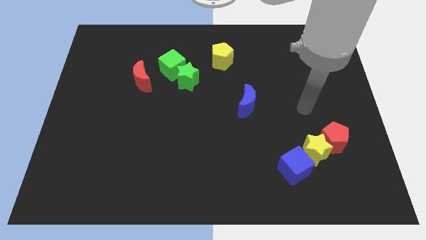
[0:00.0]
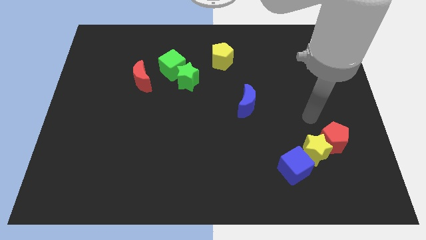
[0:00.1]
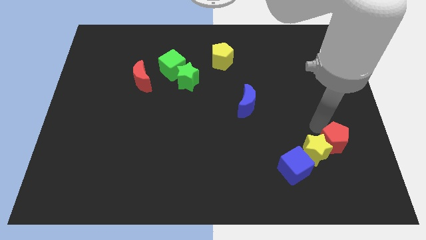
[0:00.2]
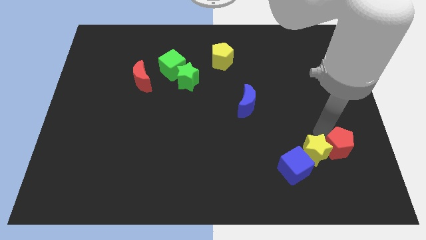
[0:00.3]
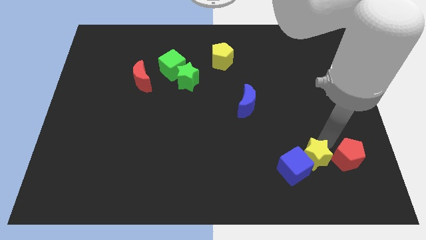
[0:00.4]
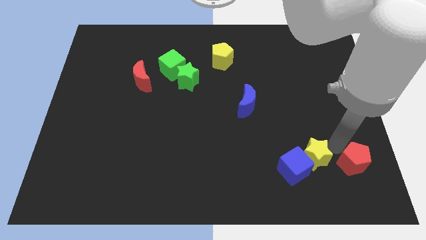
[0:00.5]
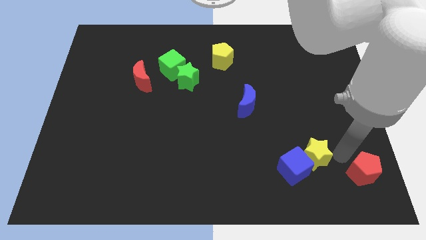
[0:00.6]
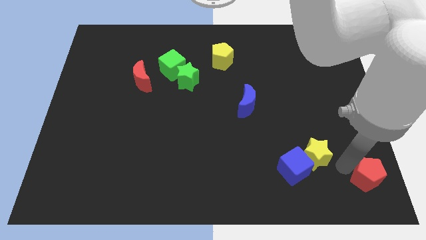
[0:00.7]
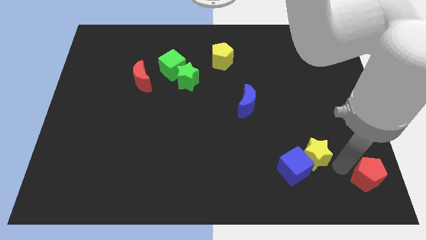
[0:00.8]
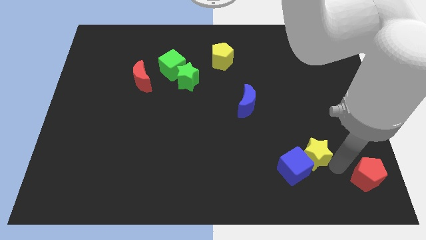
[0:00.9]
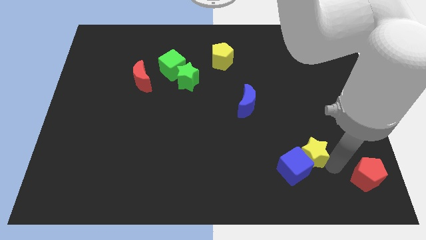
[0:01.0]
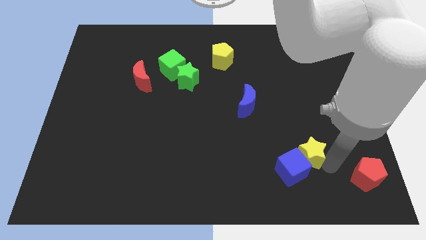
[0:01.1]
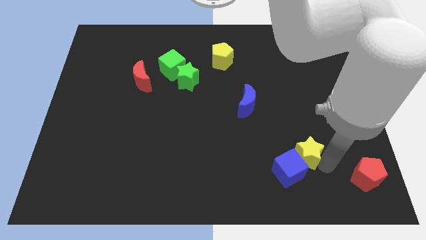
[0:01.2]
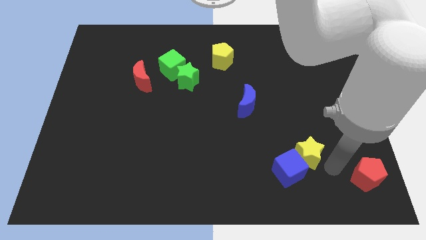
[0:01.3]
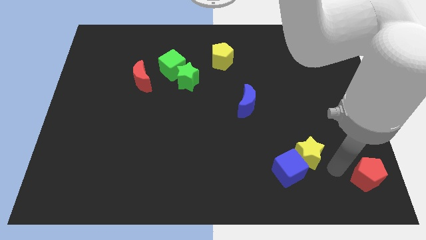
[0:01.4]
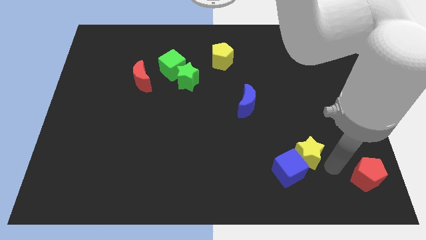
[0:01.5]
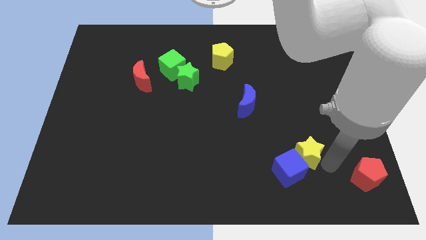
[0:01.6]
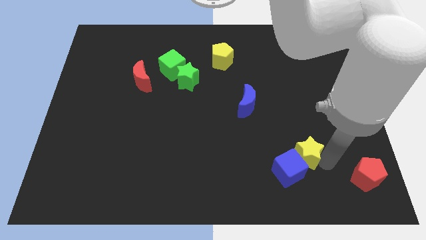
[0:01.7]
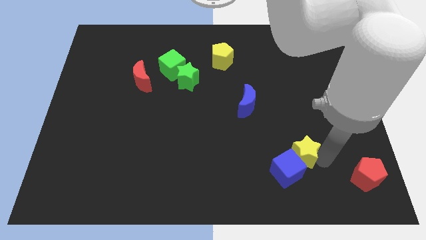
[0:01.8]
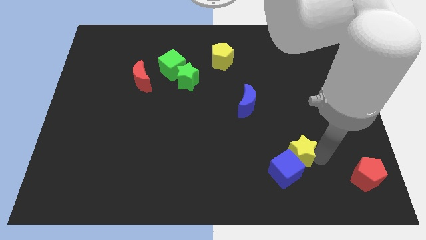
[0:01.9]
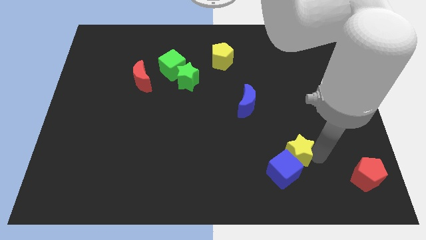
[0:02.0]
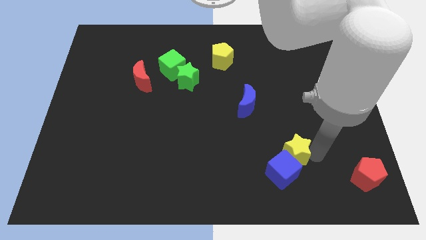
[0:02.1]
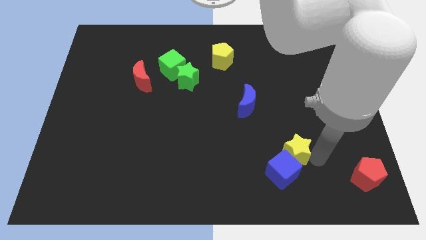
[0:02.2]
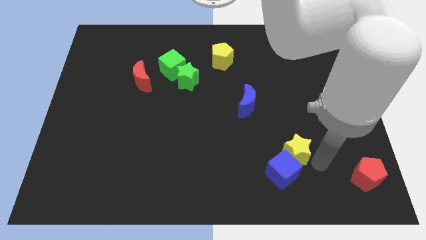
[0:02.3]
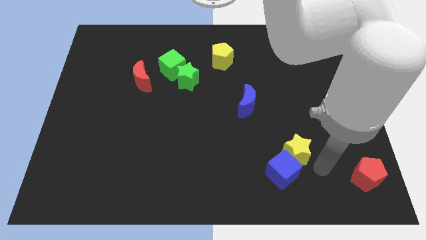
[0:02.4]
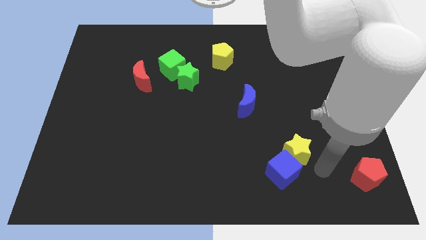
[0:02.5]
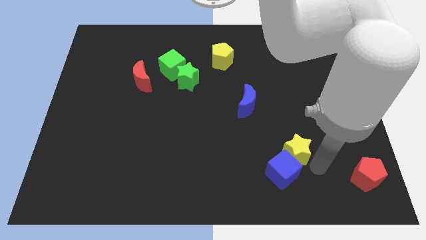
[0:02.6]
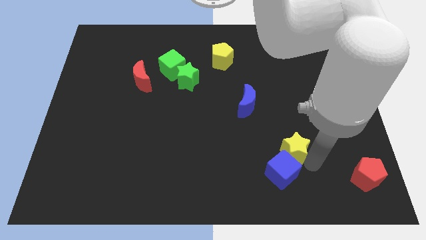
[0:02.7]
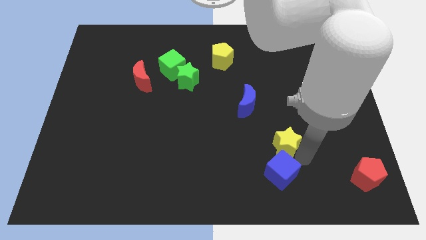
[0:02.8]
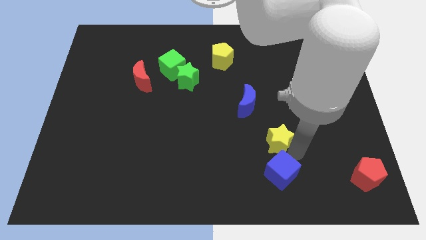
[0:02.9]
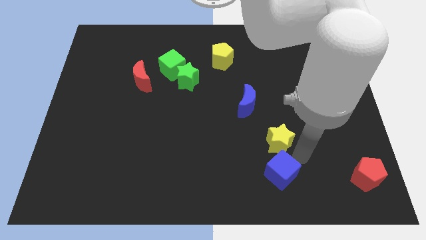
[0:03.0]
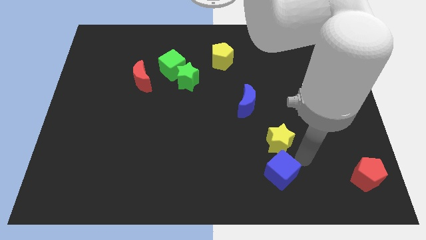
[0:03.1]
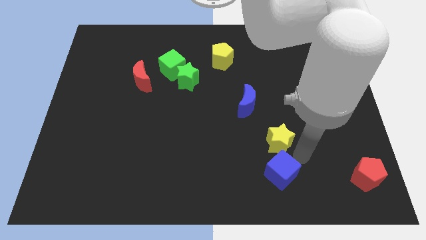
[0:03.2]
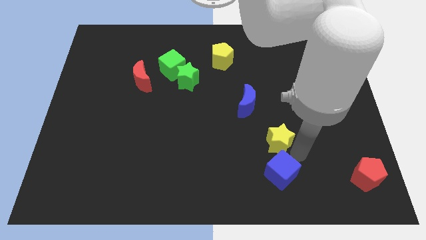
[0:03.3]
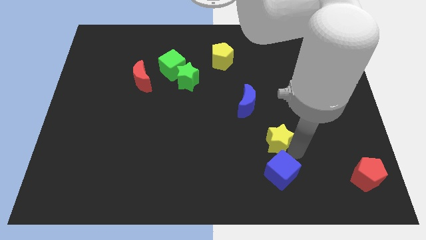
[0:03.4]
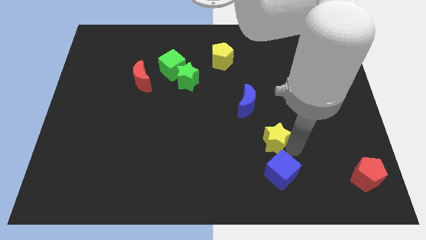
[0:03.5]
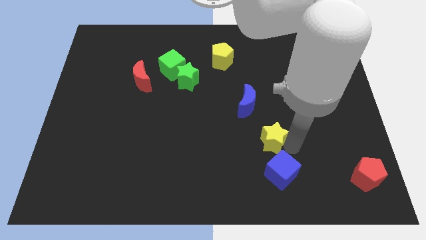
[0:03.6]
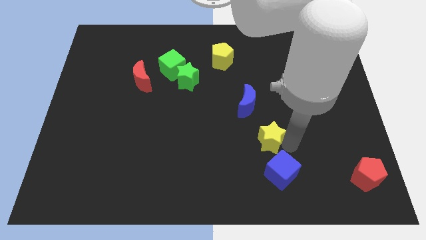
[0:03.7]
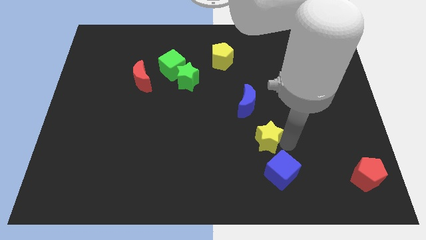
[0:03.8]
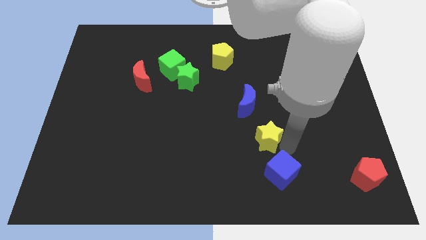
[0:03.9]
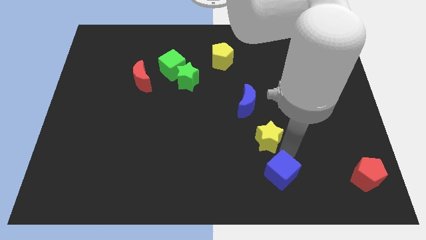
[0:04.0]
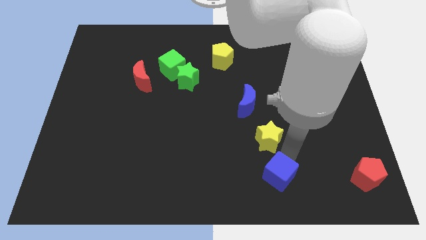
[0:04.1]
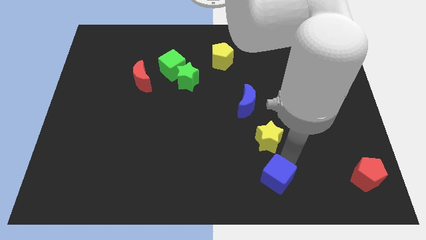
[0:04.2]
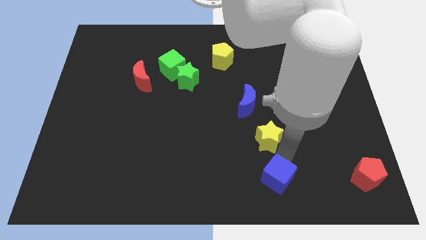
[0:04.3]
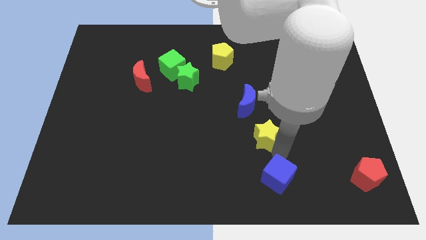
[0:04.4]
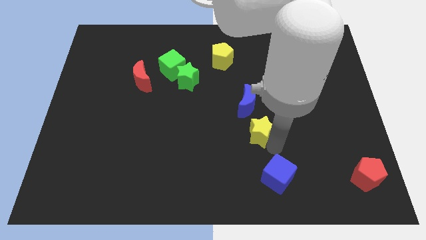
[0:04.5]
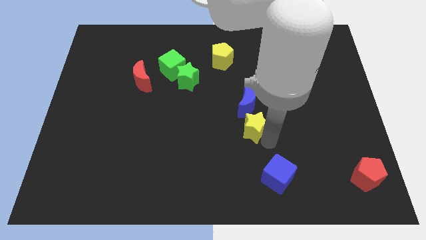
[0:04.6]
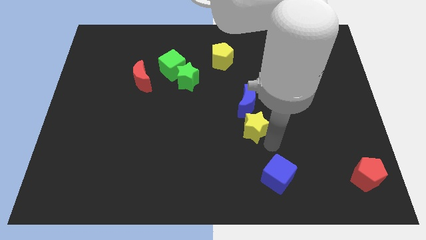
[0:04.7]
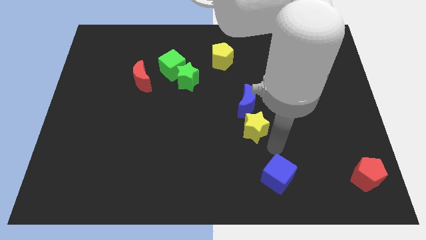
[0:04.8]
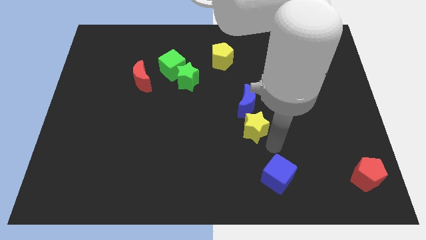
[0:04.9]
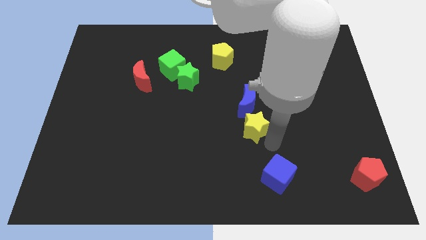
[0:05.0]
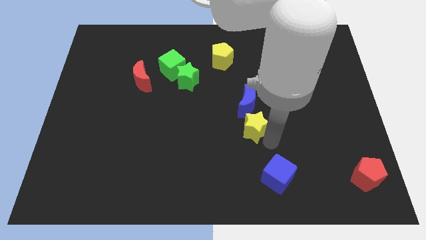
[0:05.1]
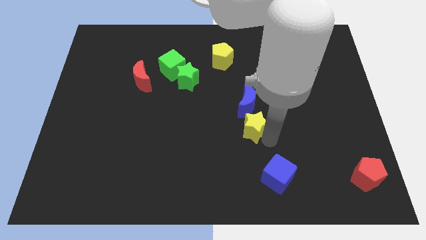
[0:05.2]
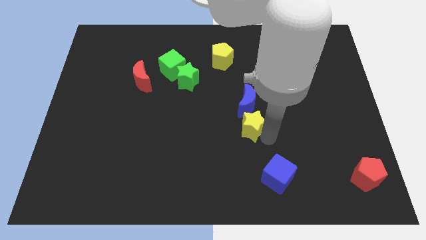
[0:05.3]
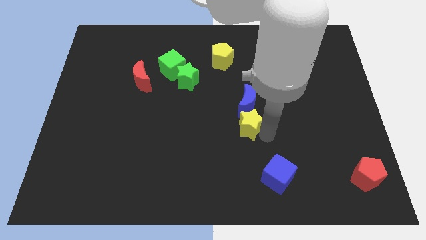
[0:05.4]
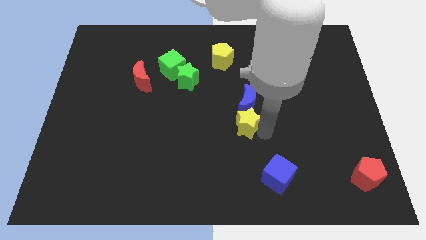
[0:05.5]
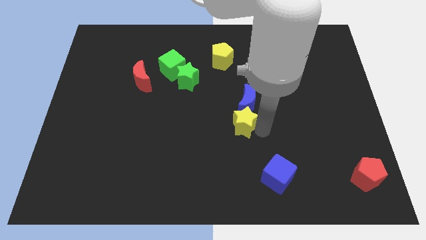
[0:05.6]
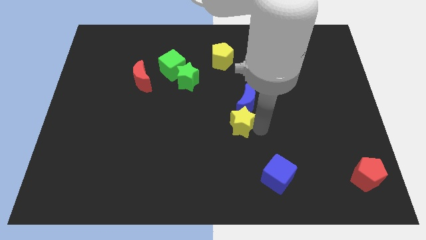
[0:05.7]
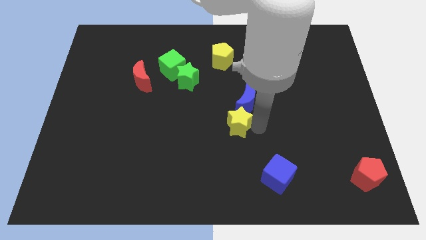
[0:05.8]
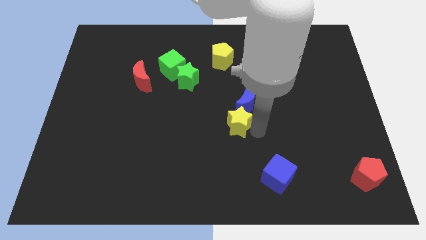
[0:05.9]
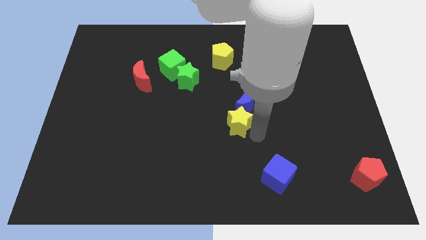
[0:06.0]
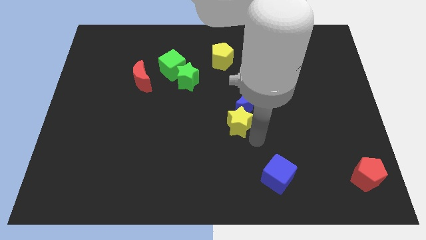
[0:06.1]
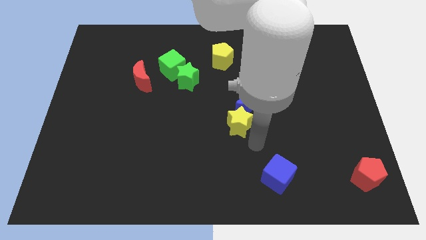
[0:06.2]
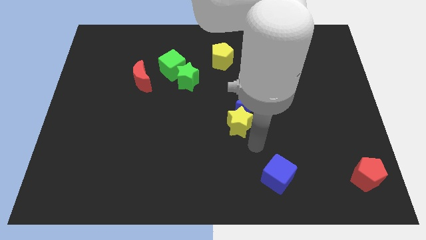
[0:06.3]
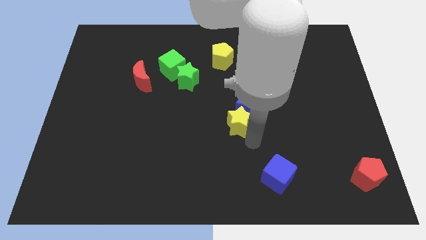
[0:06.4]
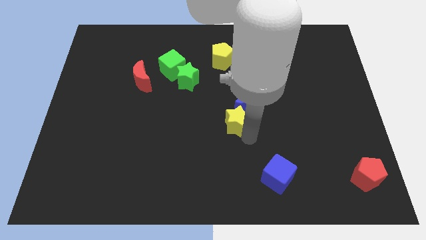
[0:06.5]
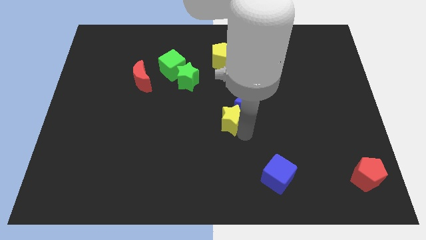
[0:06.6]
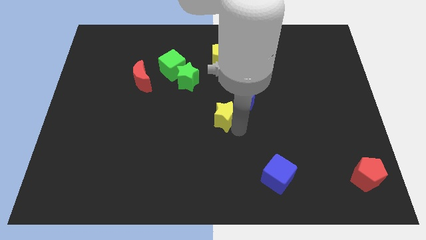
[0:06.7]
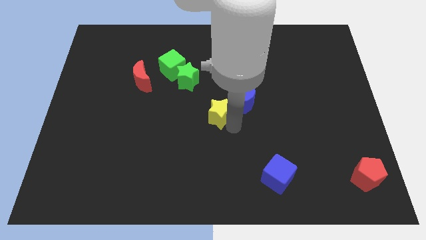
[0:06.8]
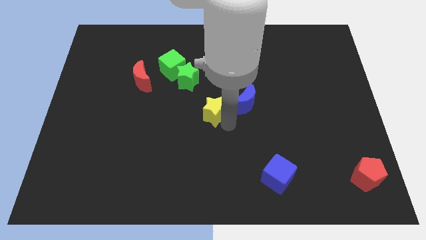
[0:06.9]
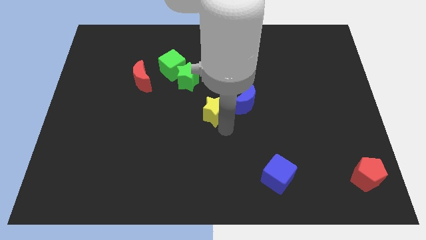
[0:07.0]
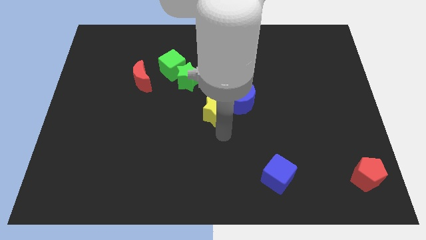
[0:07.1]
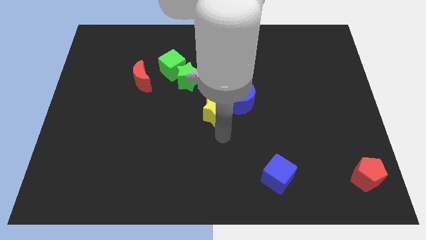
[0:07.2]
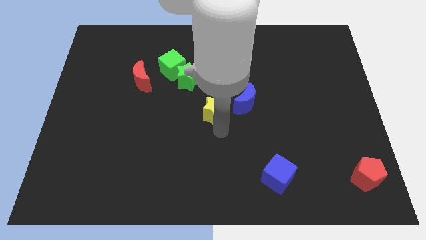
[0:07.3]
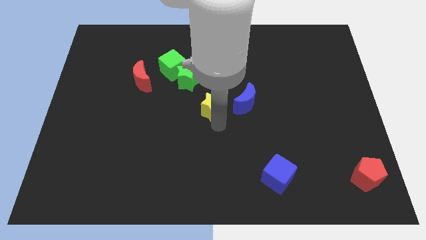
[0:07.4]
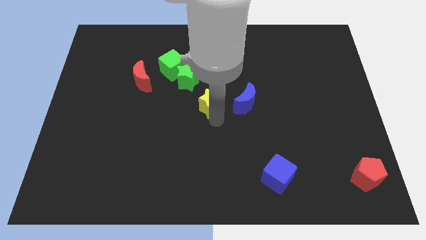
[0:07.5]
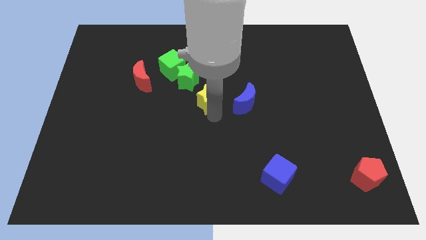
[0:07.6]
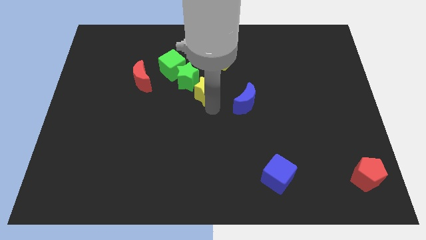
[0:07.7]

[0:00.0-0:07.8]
move the yellow star close to the green star

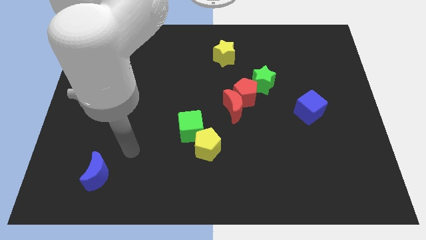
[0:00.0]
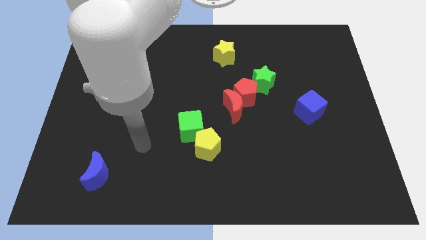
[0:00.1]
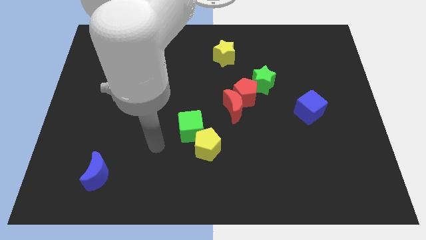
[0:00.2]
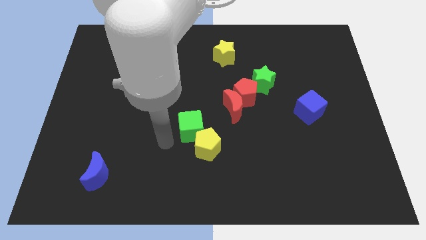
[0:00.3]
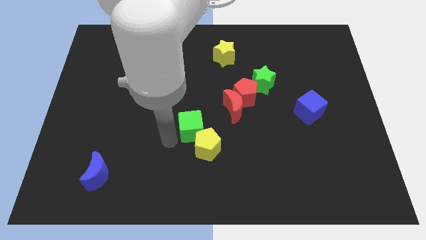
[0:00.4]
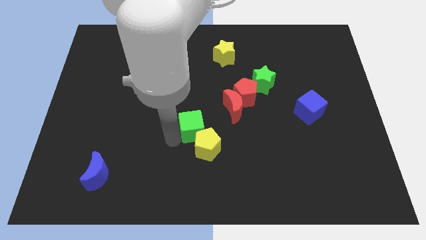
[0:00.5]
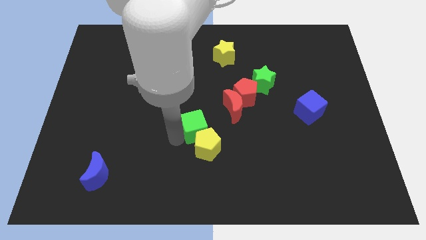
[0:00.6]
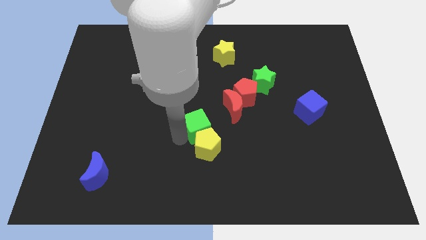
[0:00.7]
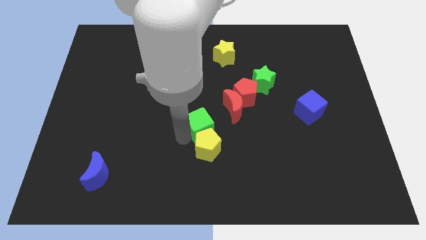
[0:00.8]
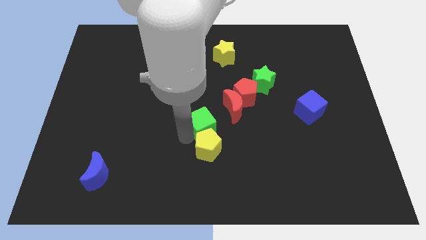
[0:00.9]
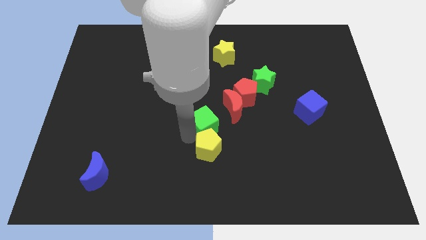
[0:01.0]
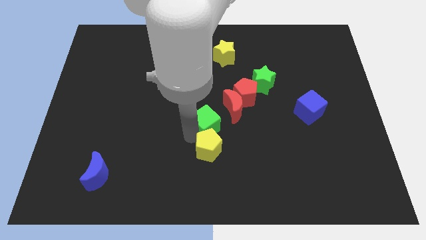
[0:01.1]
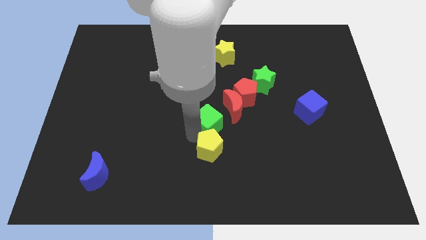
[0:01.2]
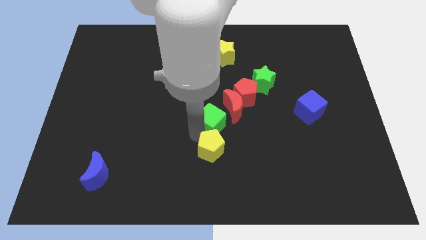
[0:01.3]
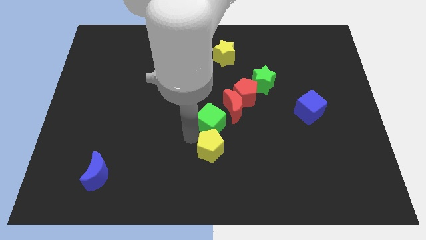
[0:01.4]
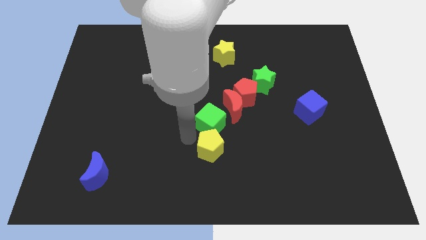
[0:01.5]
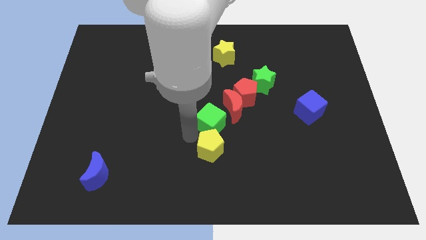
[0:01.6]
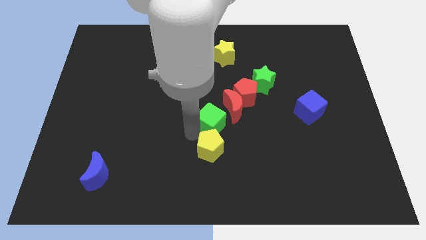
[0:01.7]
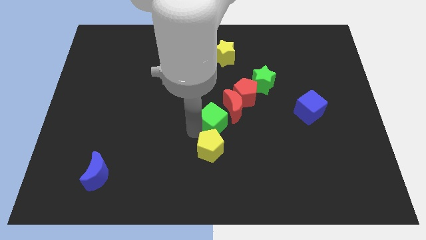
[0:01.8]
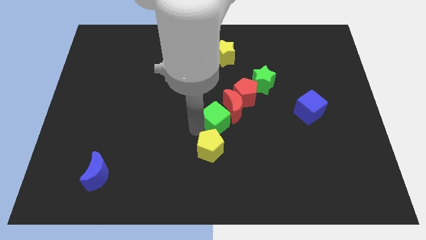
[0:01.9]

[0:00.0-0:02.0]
slide the green cube towards the red moon
